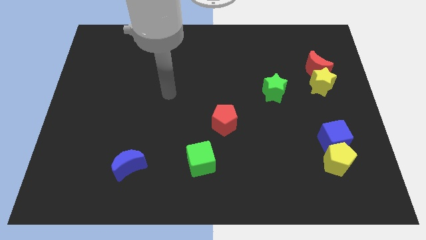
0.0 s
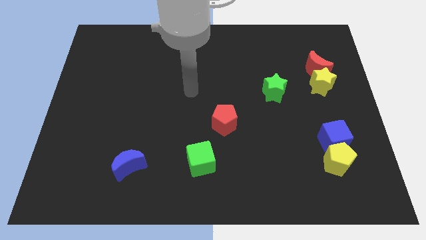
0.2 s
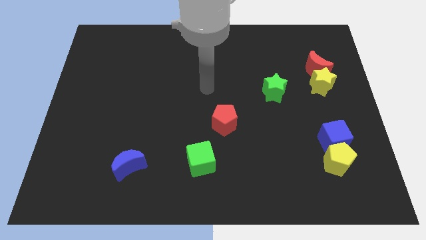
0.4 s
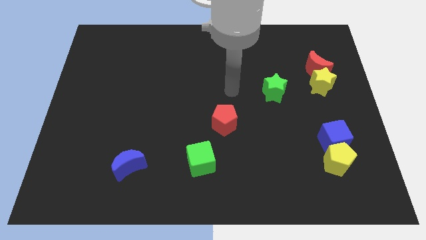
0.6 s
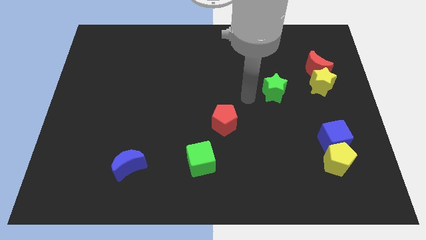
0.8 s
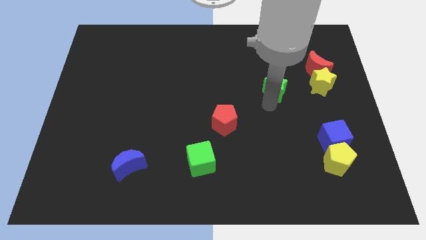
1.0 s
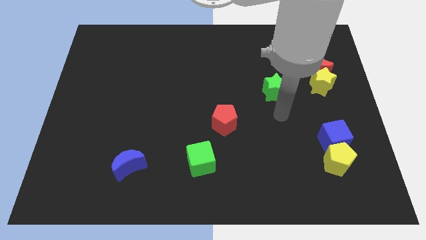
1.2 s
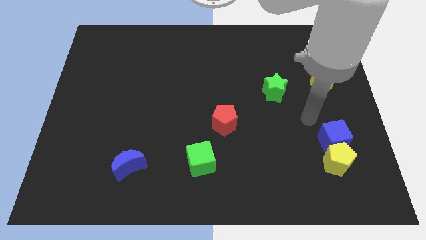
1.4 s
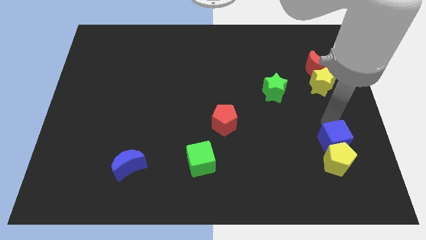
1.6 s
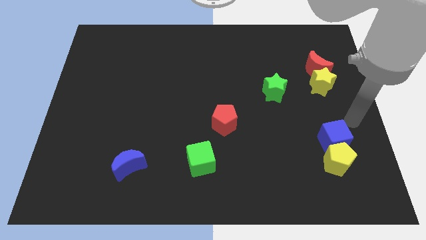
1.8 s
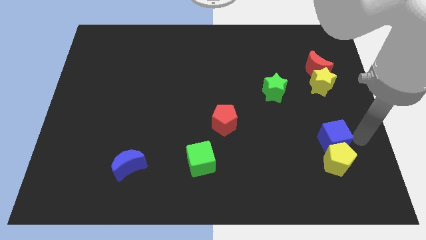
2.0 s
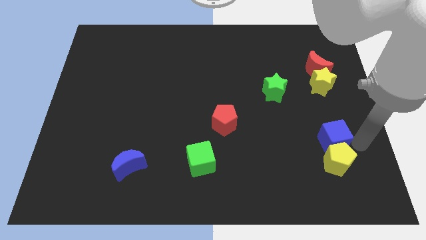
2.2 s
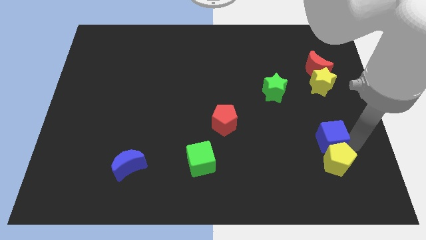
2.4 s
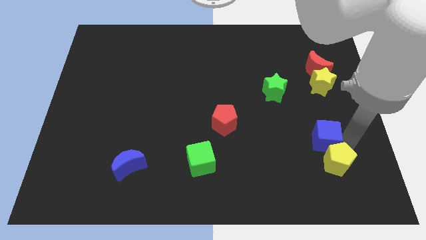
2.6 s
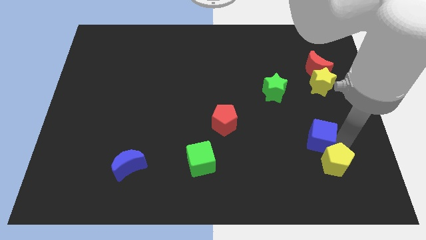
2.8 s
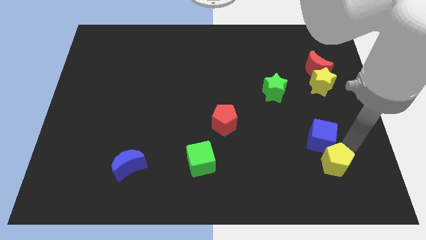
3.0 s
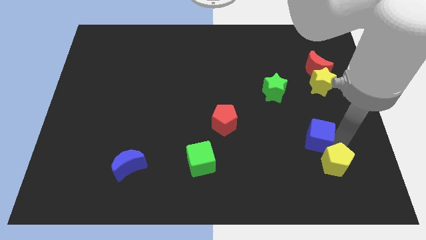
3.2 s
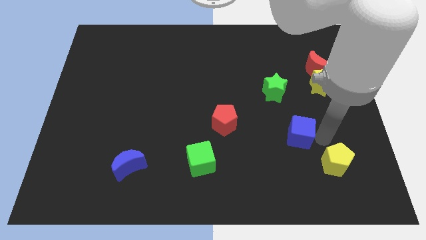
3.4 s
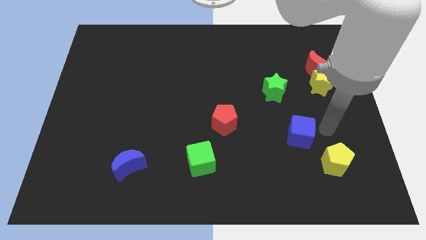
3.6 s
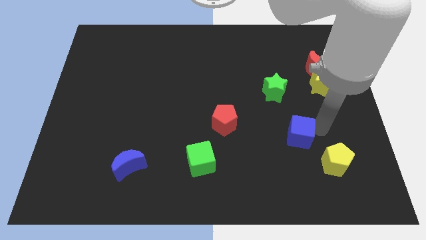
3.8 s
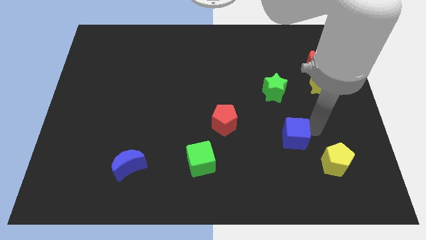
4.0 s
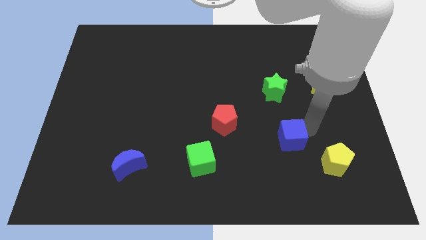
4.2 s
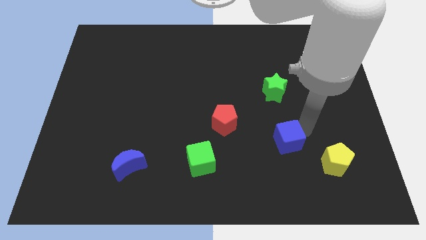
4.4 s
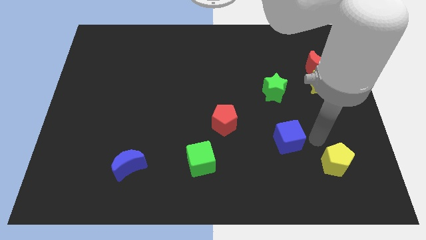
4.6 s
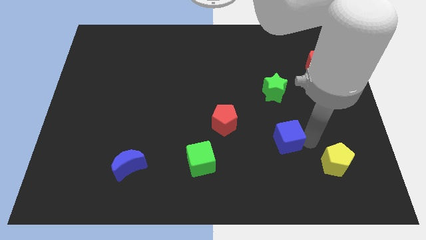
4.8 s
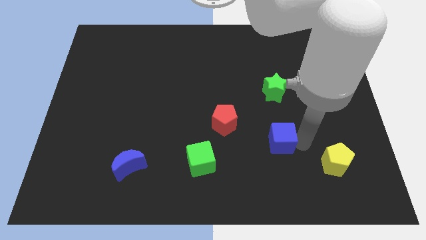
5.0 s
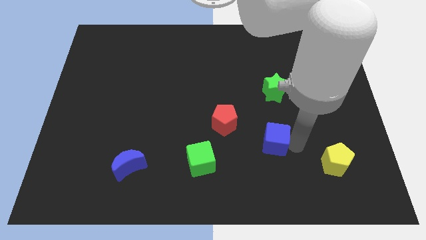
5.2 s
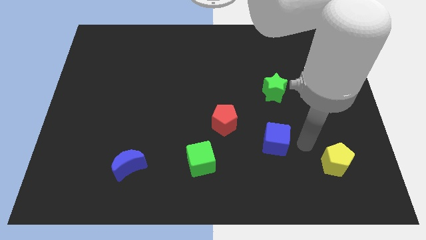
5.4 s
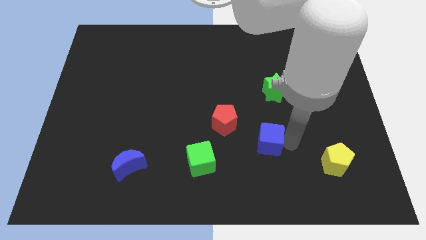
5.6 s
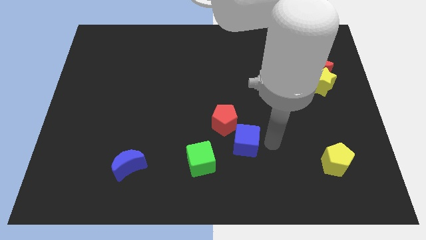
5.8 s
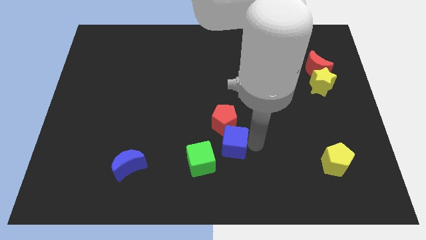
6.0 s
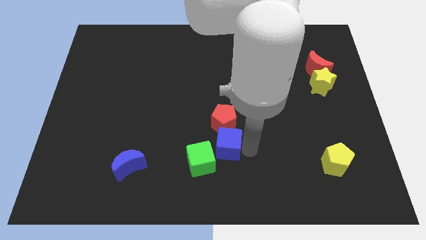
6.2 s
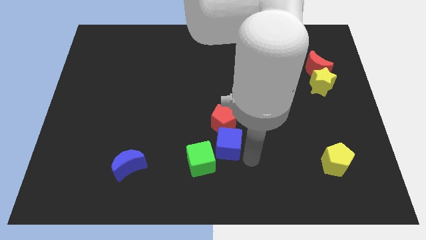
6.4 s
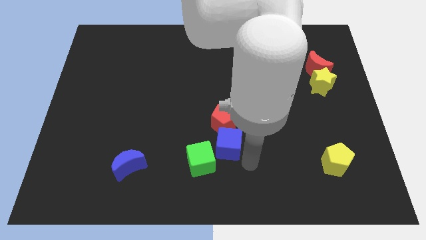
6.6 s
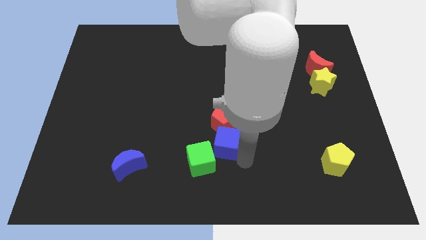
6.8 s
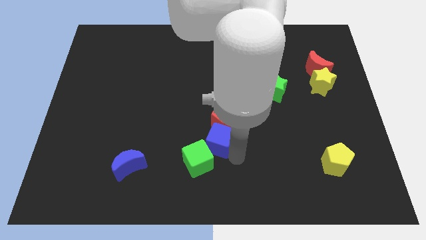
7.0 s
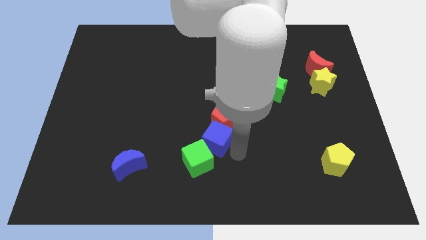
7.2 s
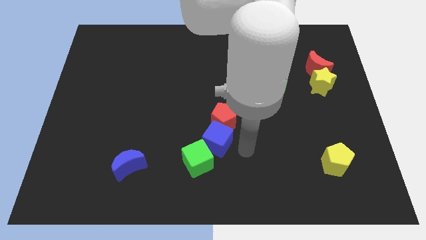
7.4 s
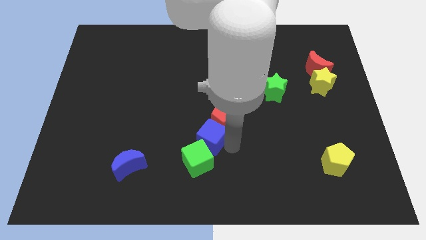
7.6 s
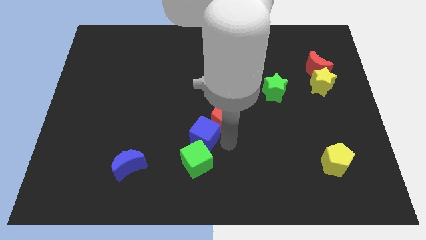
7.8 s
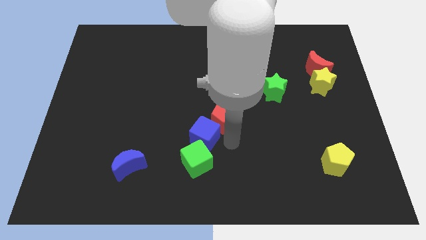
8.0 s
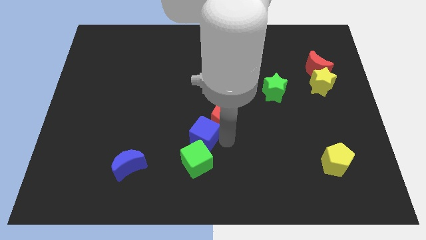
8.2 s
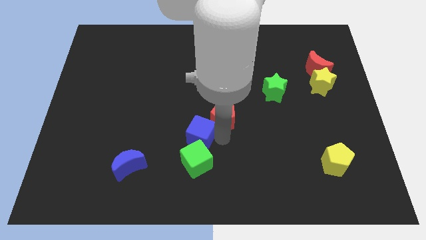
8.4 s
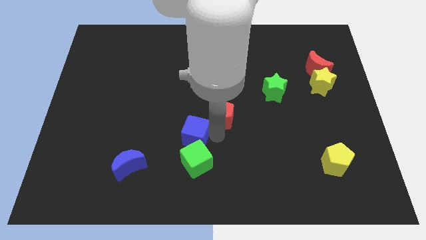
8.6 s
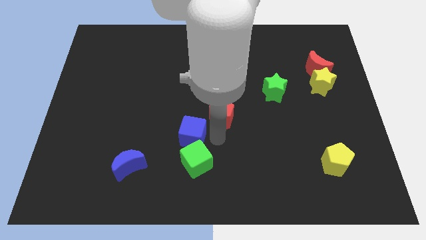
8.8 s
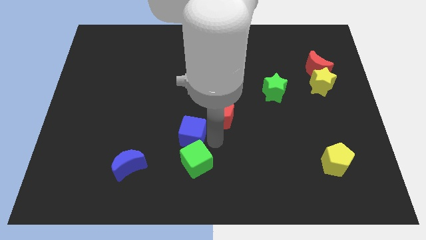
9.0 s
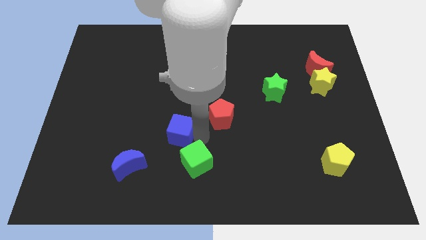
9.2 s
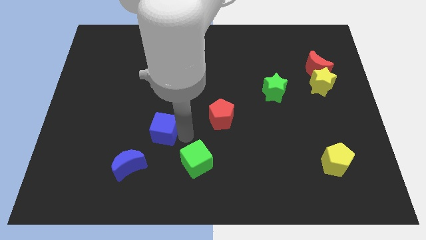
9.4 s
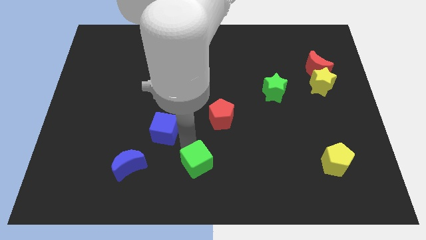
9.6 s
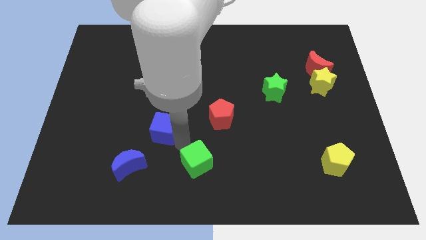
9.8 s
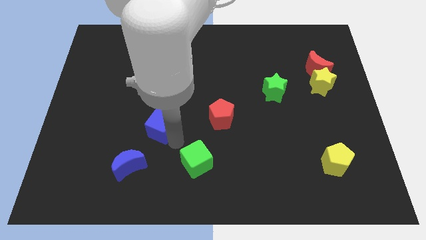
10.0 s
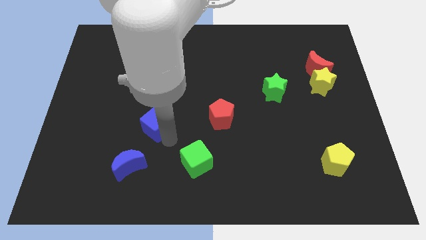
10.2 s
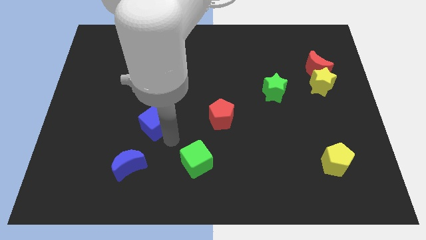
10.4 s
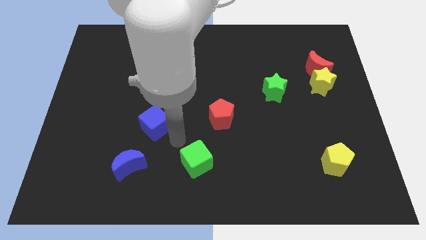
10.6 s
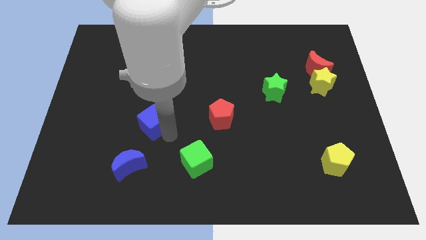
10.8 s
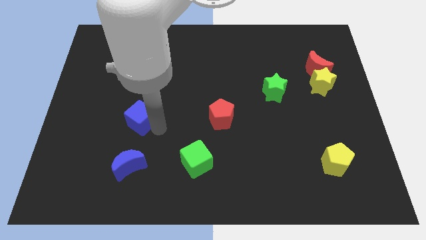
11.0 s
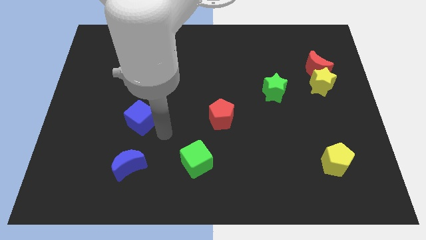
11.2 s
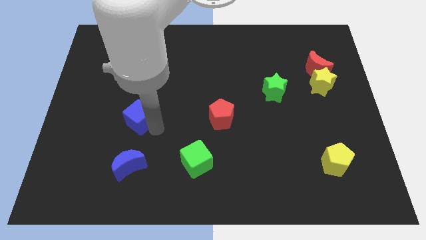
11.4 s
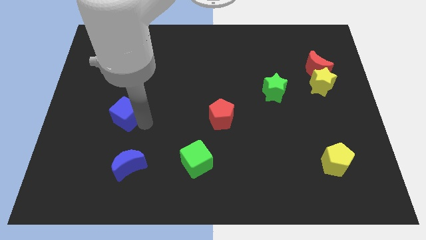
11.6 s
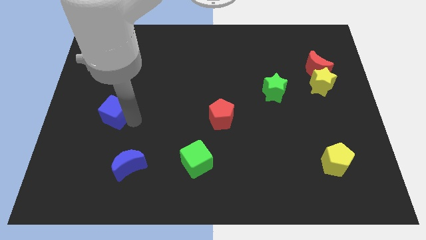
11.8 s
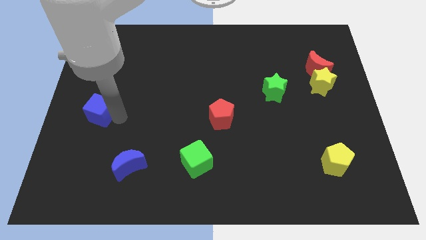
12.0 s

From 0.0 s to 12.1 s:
put the blue cube to the left side
